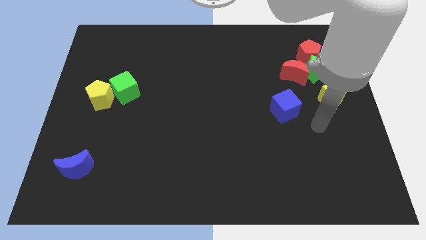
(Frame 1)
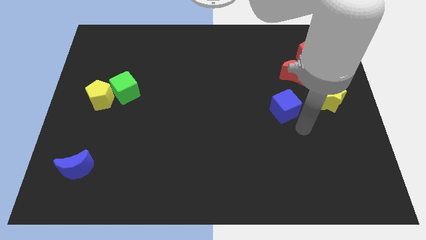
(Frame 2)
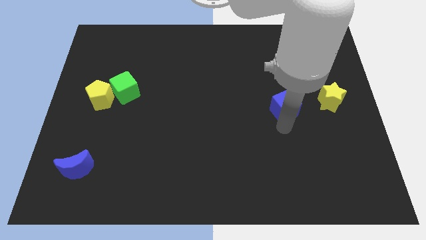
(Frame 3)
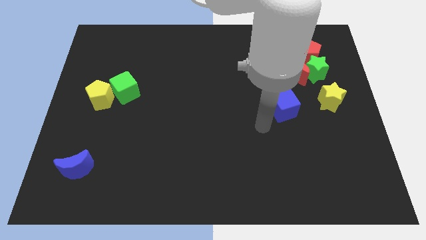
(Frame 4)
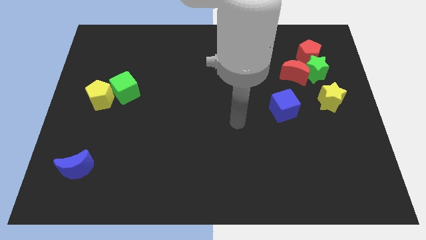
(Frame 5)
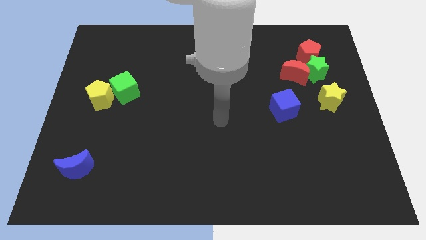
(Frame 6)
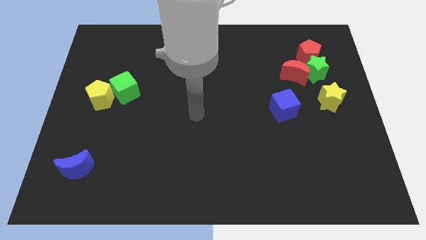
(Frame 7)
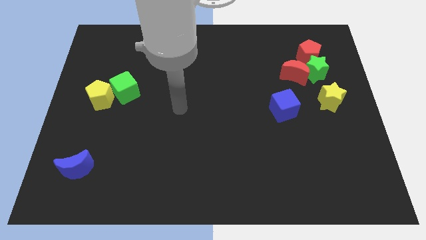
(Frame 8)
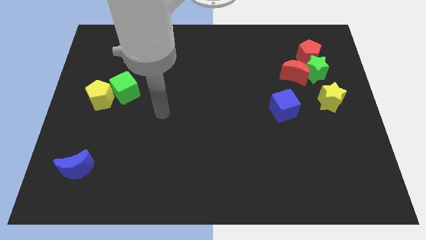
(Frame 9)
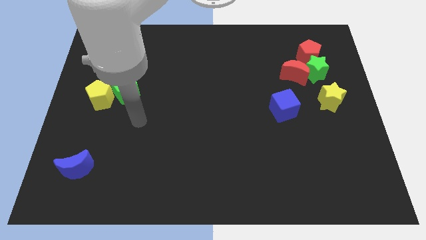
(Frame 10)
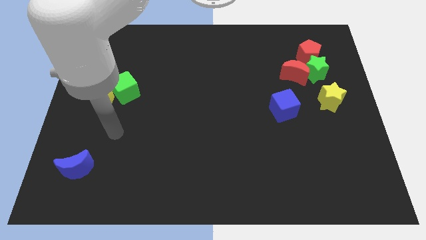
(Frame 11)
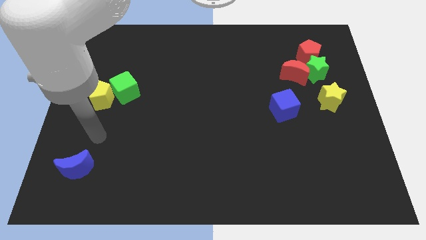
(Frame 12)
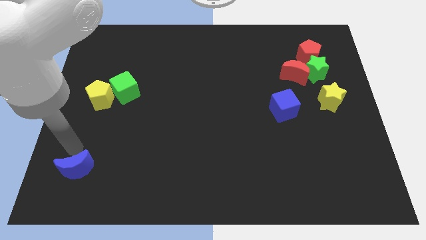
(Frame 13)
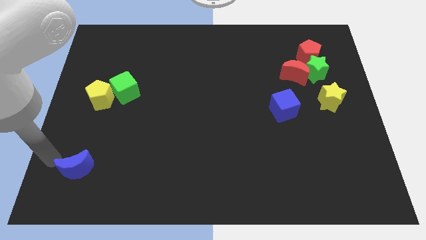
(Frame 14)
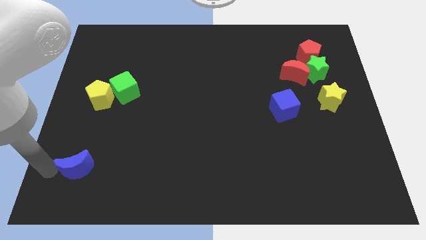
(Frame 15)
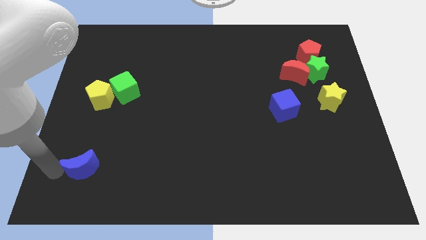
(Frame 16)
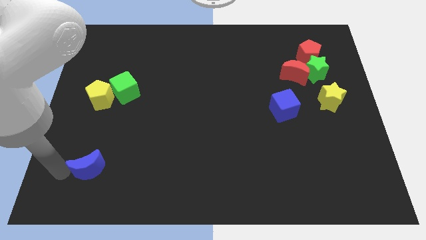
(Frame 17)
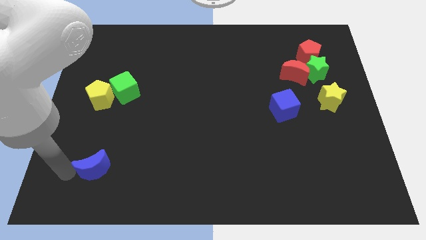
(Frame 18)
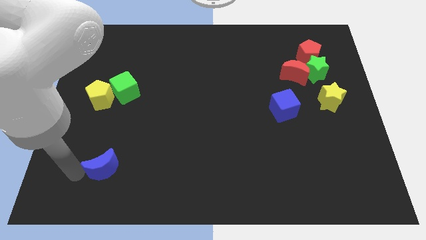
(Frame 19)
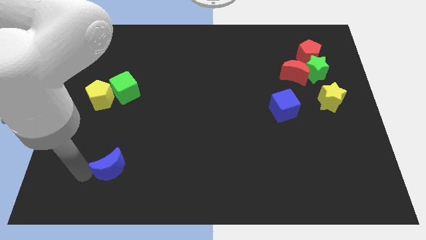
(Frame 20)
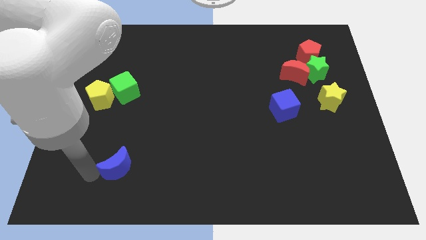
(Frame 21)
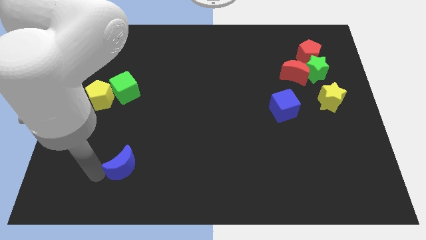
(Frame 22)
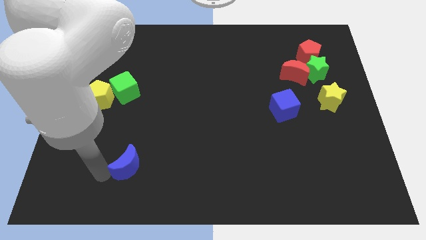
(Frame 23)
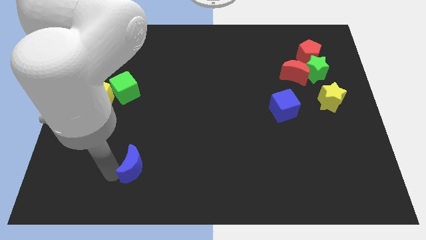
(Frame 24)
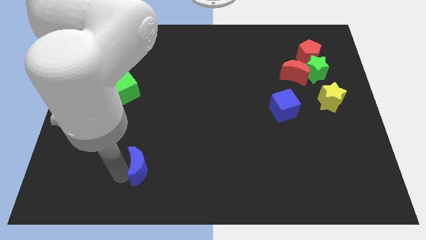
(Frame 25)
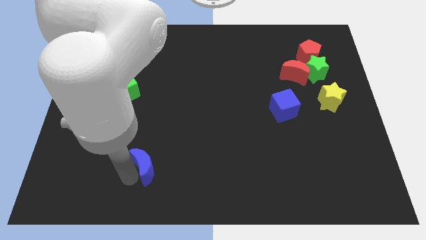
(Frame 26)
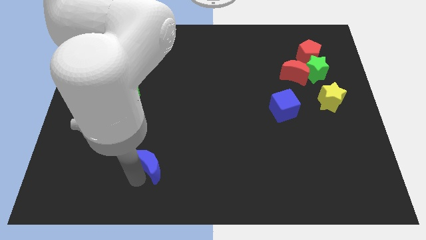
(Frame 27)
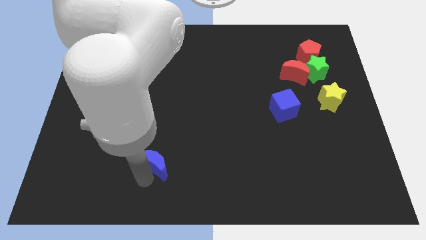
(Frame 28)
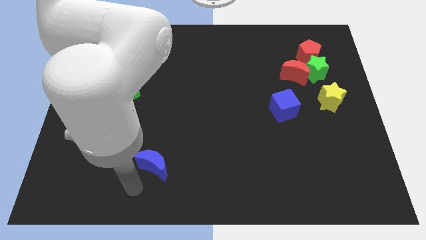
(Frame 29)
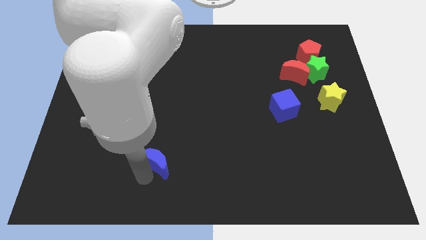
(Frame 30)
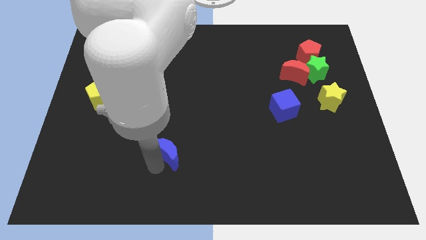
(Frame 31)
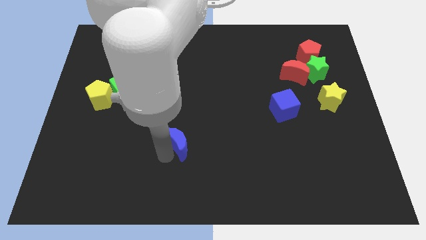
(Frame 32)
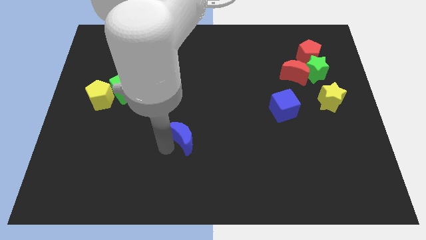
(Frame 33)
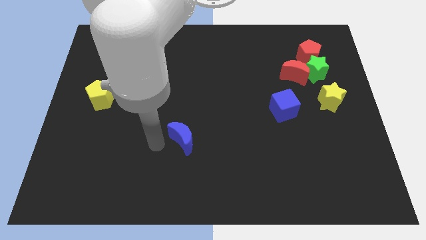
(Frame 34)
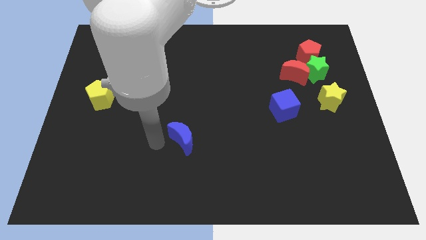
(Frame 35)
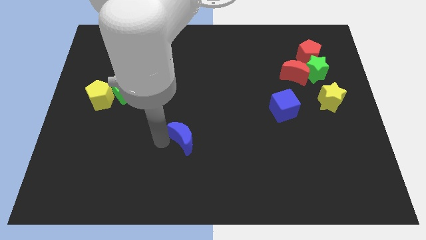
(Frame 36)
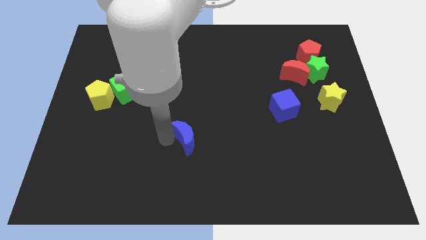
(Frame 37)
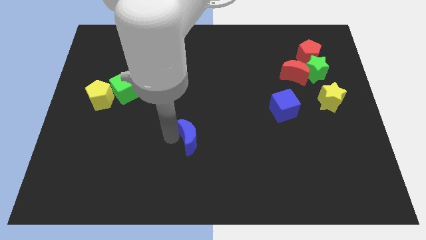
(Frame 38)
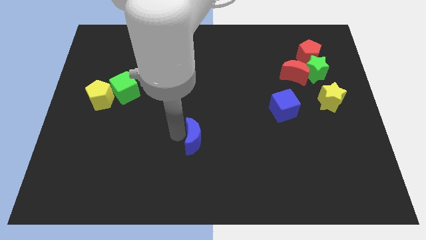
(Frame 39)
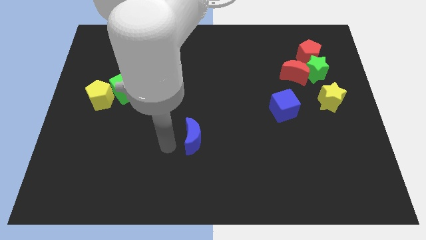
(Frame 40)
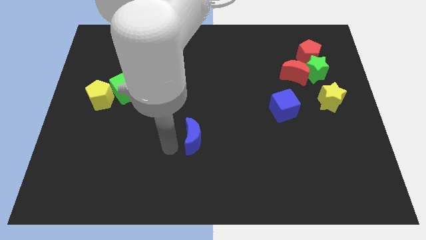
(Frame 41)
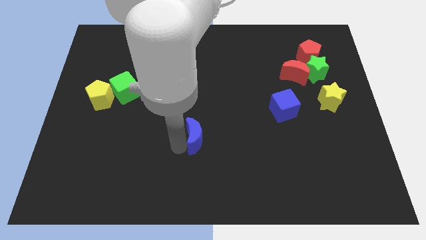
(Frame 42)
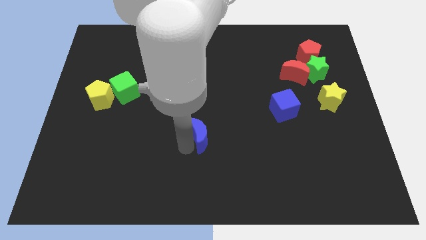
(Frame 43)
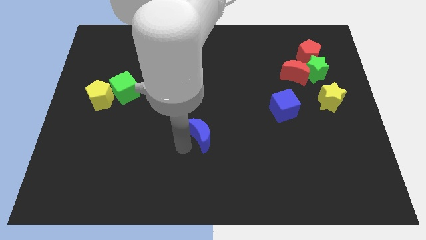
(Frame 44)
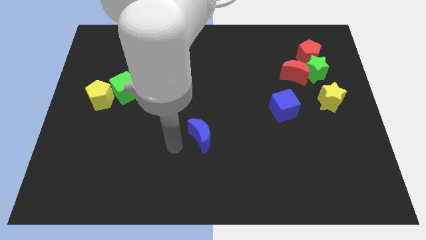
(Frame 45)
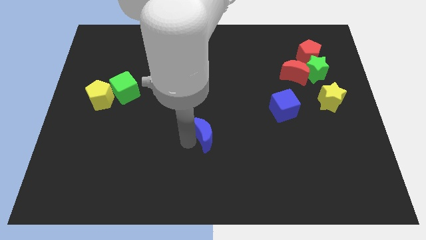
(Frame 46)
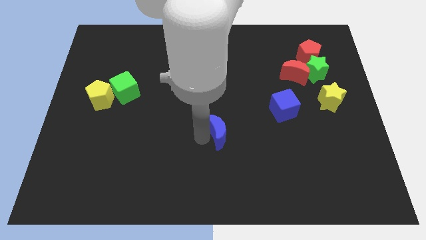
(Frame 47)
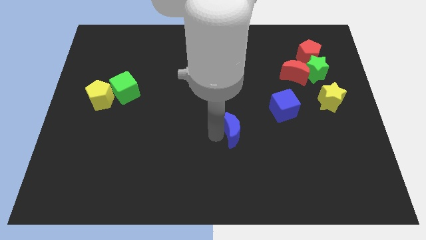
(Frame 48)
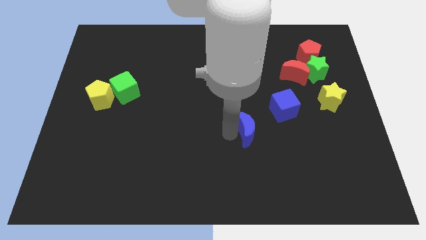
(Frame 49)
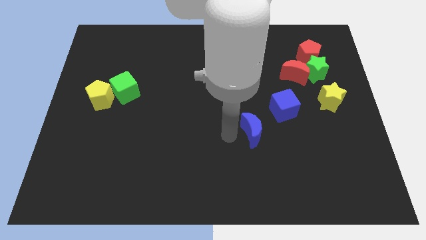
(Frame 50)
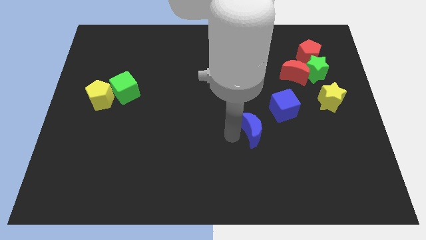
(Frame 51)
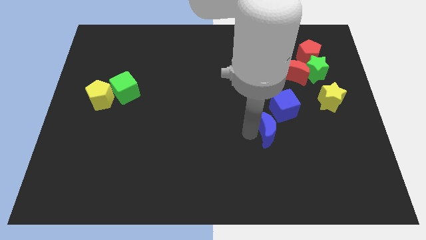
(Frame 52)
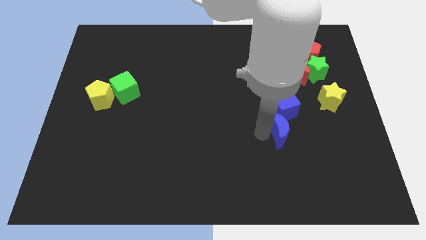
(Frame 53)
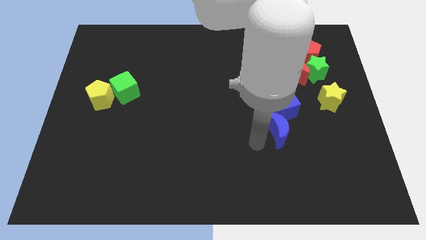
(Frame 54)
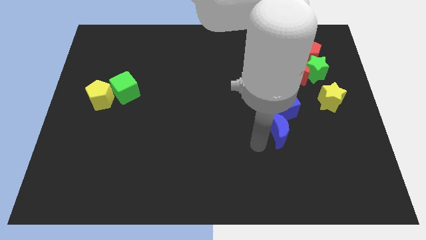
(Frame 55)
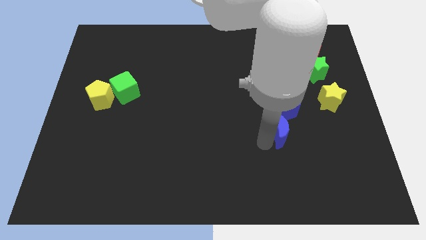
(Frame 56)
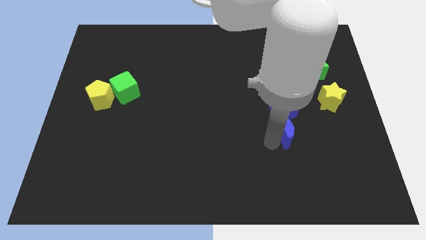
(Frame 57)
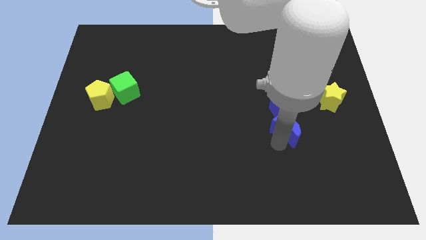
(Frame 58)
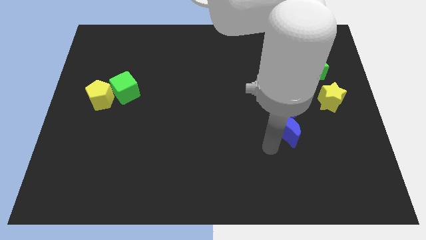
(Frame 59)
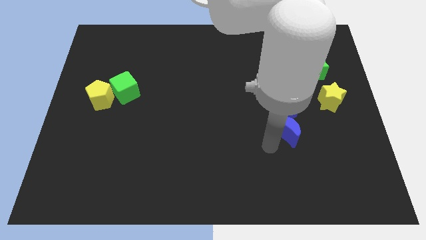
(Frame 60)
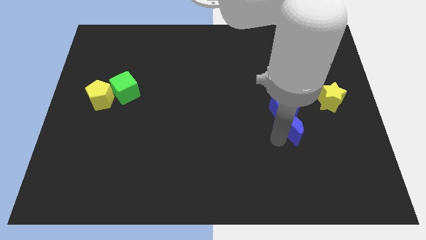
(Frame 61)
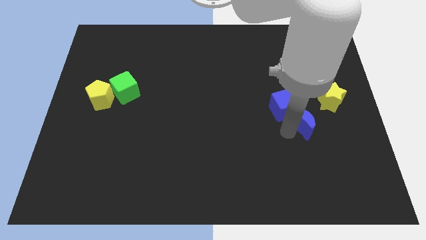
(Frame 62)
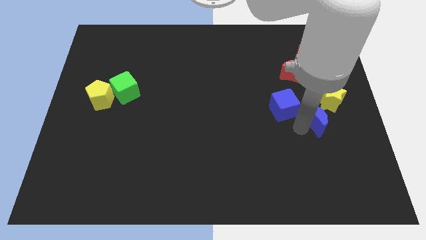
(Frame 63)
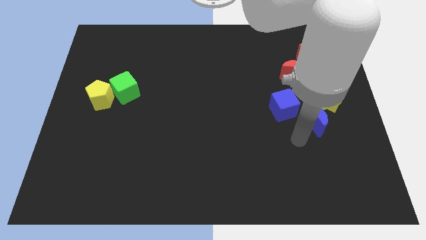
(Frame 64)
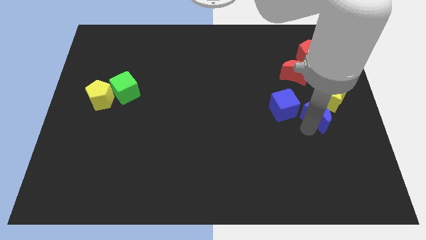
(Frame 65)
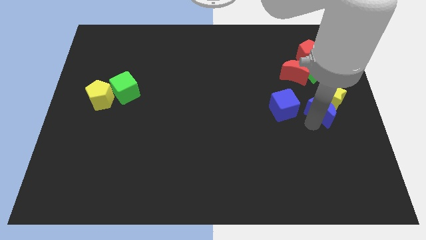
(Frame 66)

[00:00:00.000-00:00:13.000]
put the blue moon close to the yellow star
